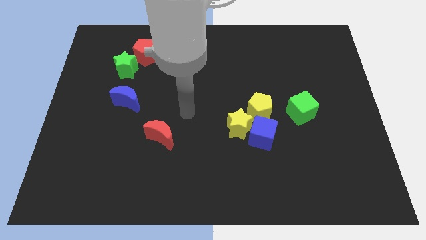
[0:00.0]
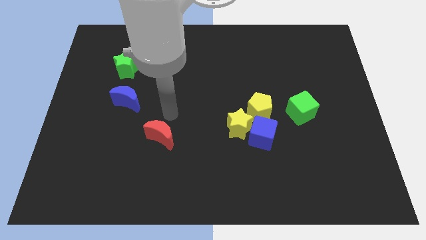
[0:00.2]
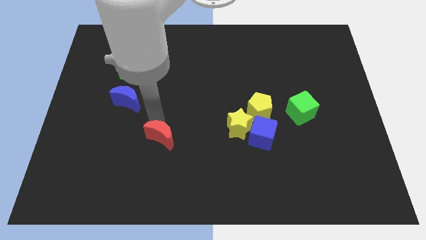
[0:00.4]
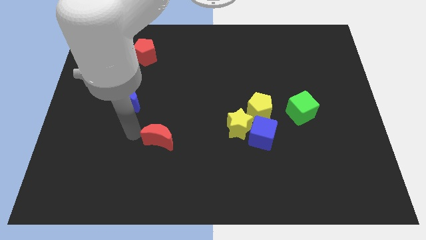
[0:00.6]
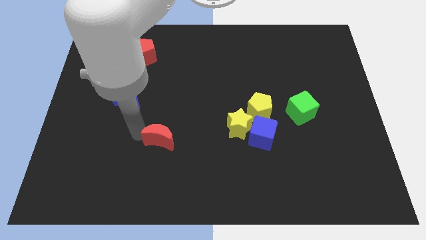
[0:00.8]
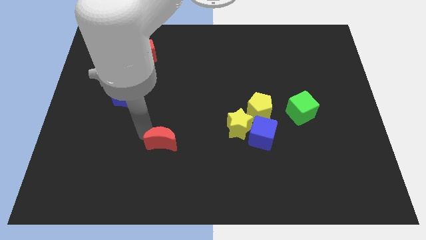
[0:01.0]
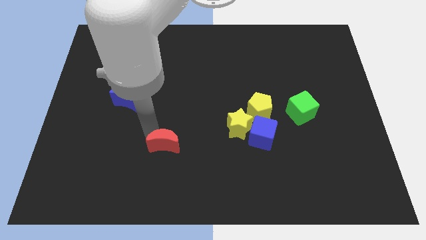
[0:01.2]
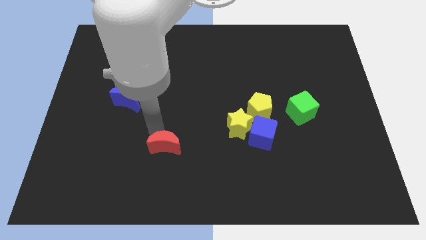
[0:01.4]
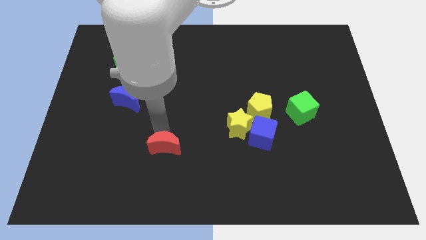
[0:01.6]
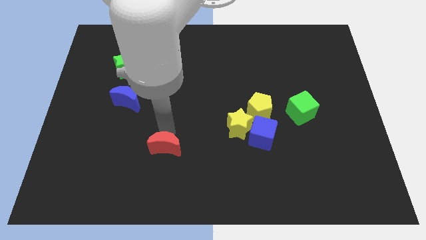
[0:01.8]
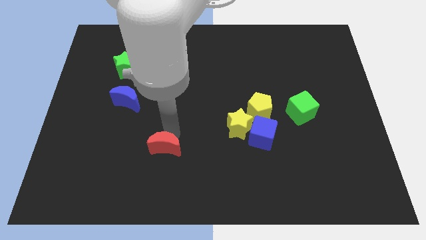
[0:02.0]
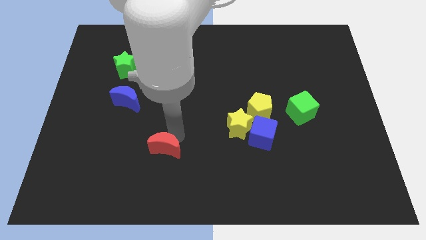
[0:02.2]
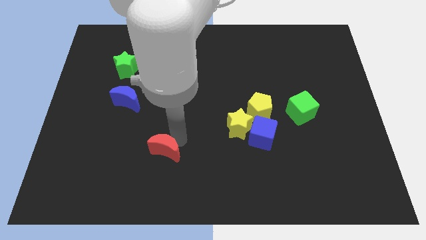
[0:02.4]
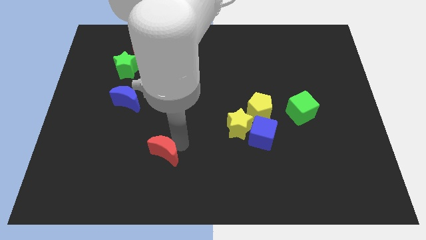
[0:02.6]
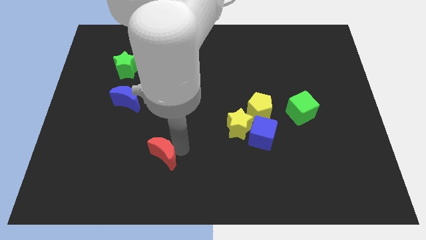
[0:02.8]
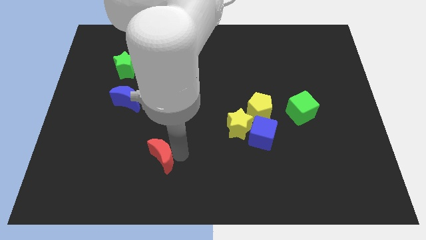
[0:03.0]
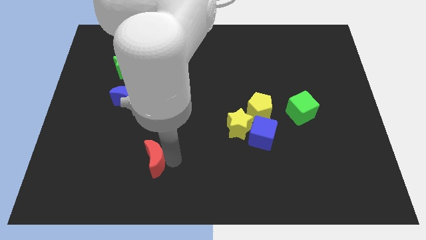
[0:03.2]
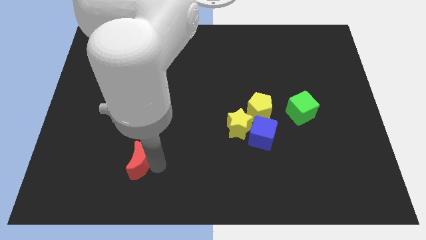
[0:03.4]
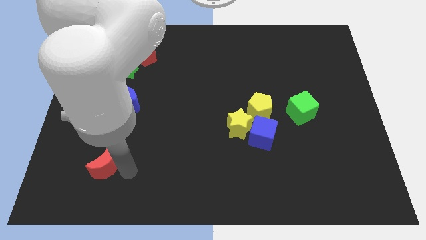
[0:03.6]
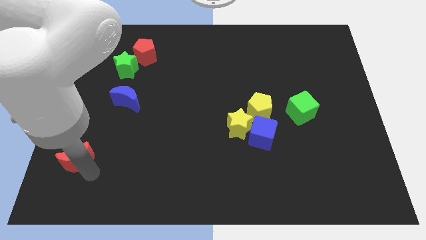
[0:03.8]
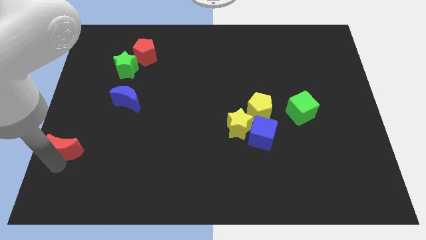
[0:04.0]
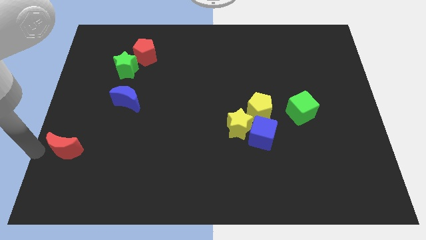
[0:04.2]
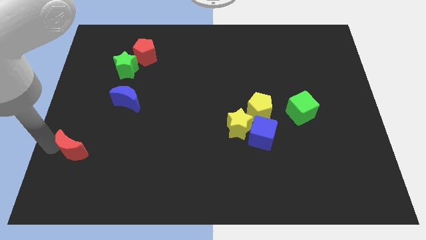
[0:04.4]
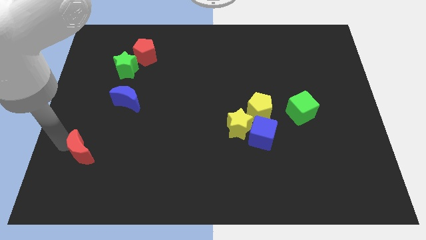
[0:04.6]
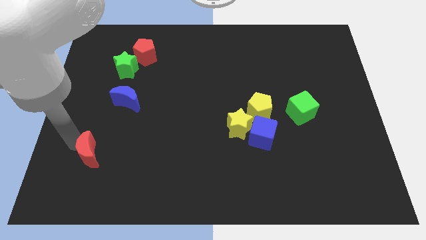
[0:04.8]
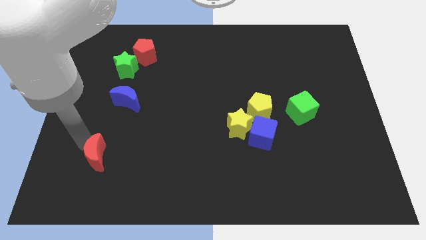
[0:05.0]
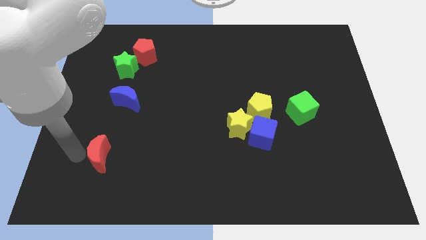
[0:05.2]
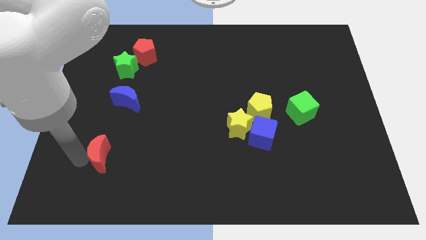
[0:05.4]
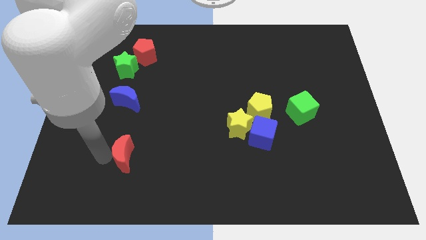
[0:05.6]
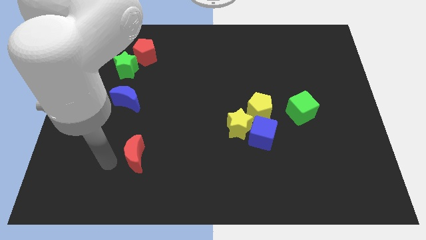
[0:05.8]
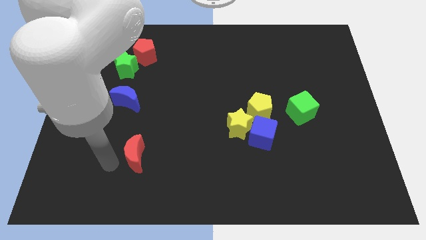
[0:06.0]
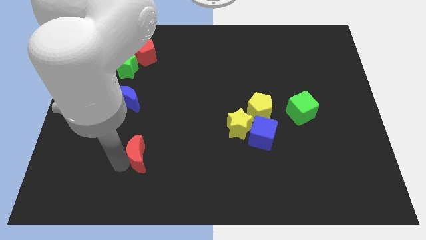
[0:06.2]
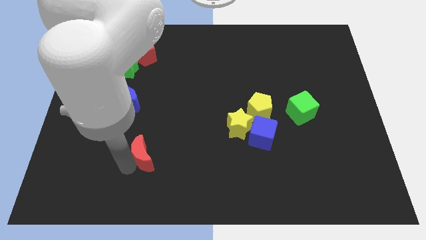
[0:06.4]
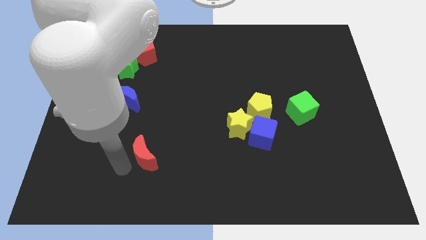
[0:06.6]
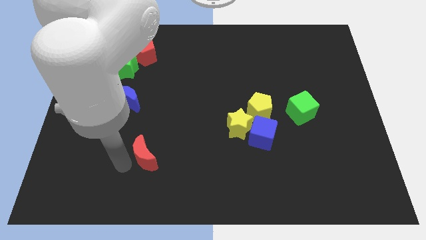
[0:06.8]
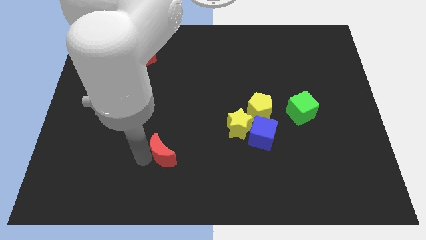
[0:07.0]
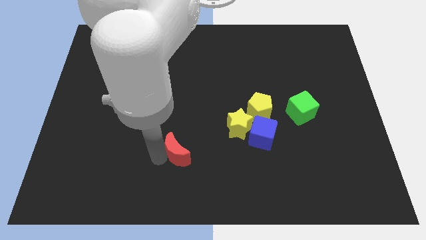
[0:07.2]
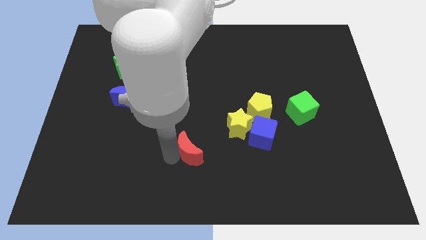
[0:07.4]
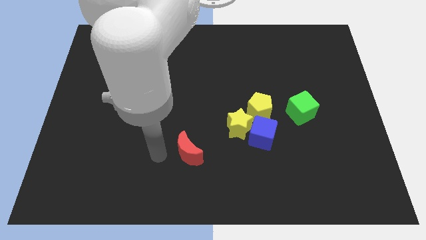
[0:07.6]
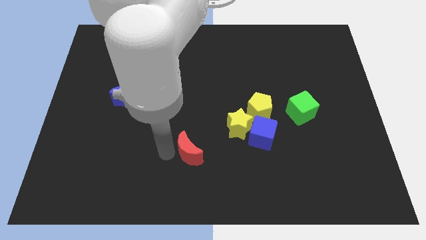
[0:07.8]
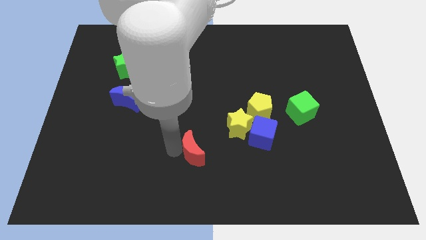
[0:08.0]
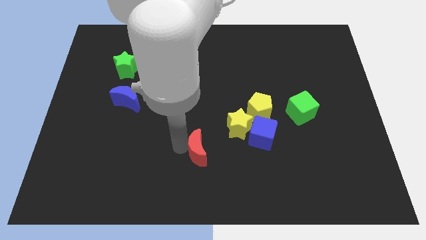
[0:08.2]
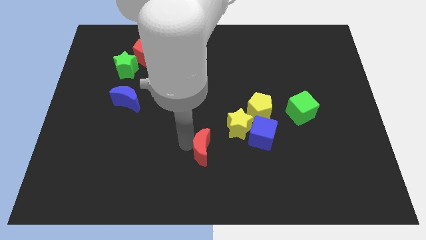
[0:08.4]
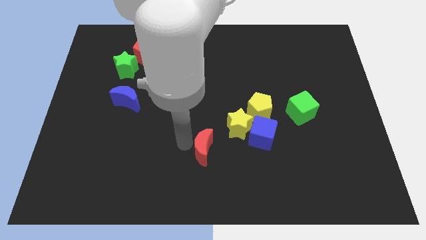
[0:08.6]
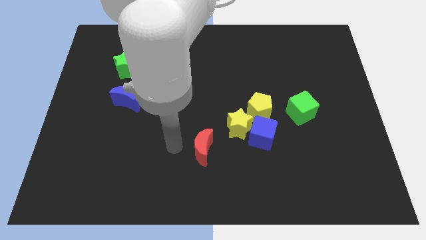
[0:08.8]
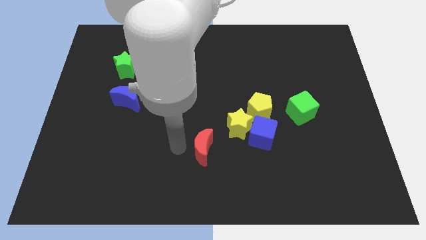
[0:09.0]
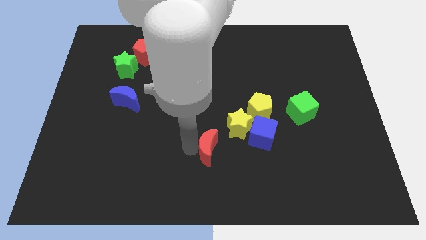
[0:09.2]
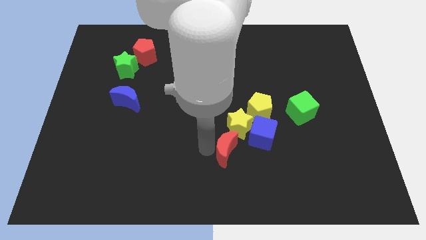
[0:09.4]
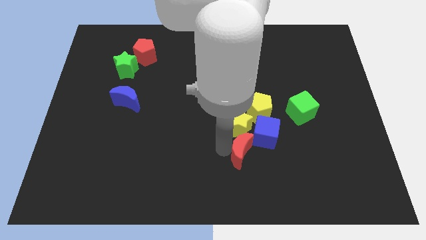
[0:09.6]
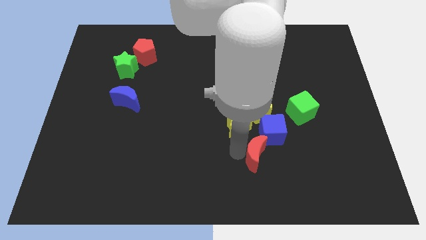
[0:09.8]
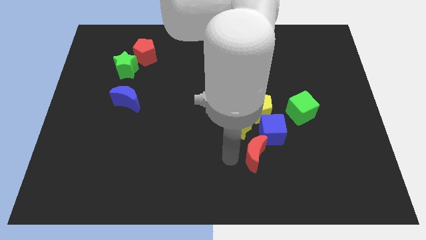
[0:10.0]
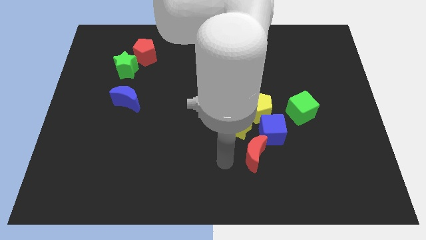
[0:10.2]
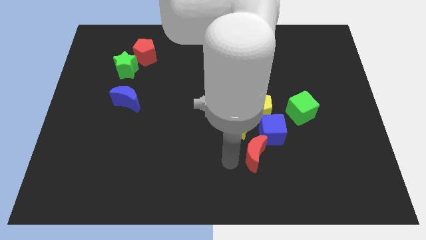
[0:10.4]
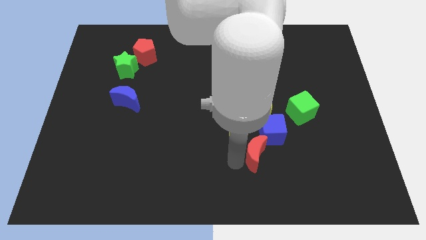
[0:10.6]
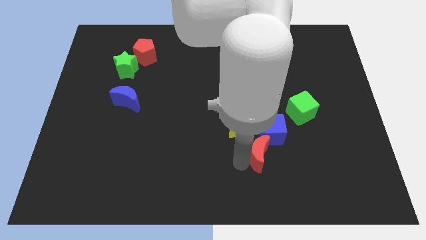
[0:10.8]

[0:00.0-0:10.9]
slide the red moon to the right

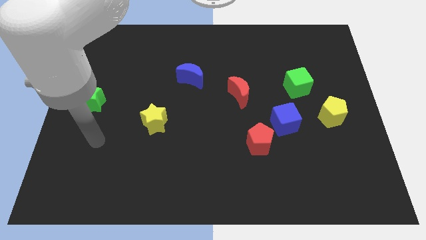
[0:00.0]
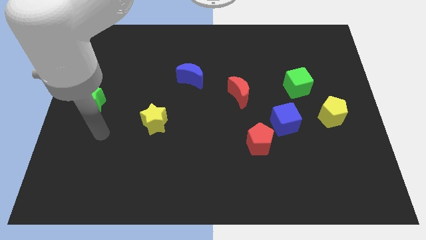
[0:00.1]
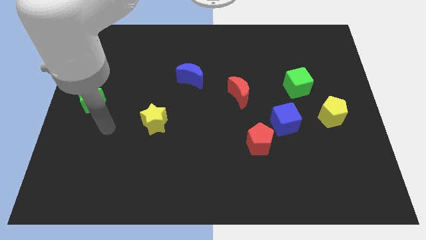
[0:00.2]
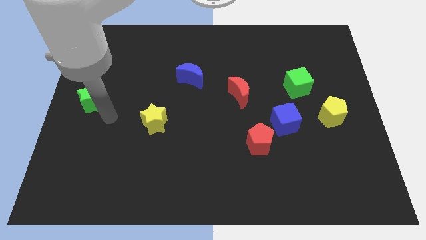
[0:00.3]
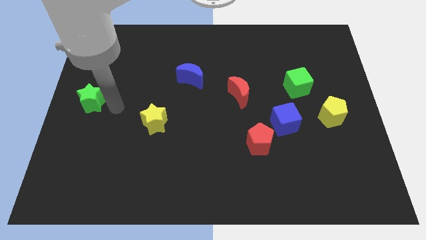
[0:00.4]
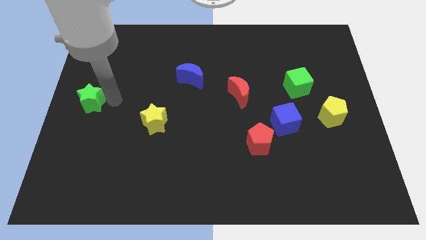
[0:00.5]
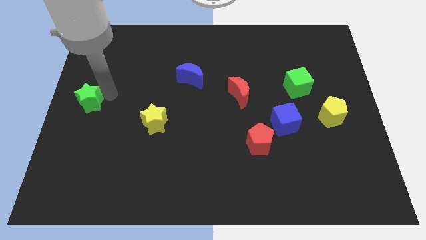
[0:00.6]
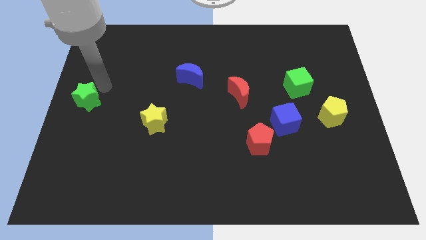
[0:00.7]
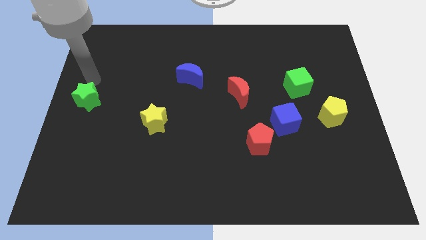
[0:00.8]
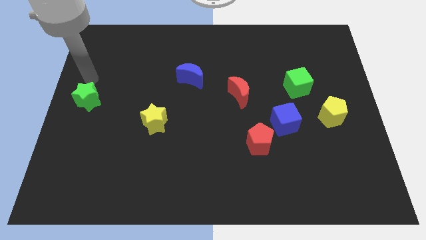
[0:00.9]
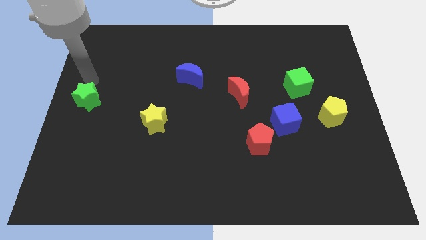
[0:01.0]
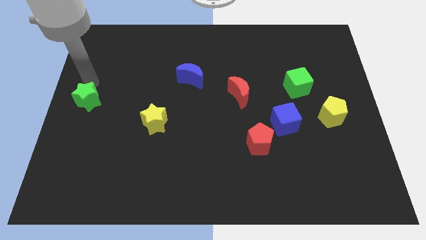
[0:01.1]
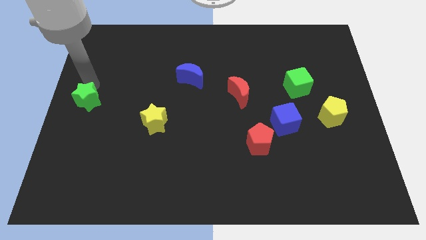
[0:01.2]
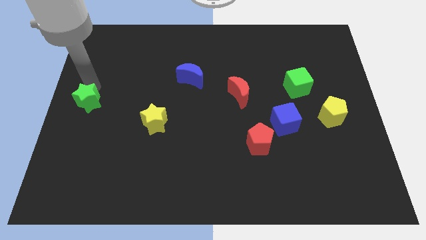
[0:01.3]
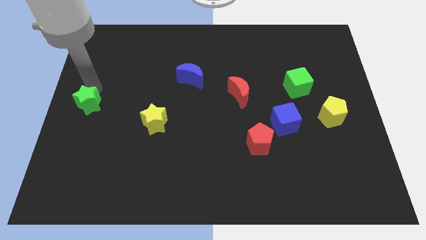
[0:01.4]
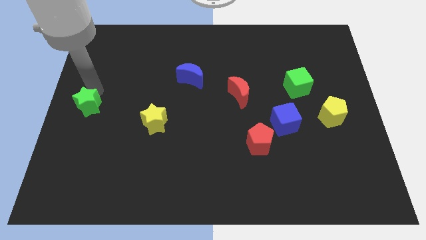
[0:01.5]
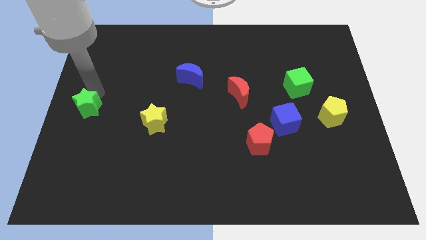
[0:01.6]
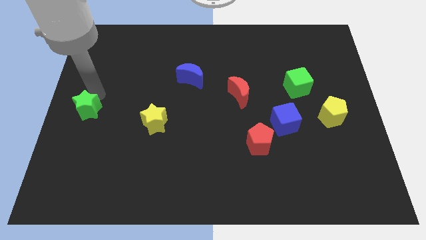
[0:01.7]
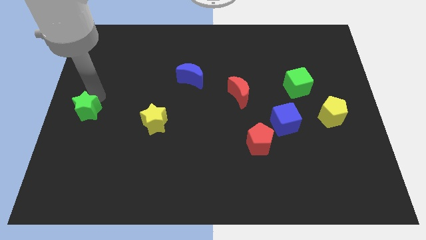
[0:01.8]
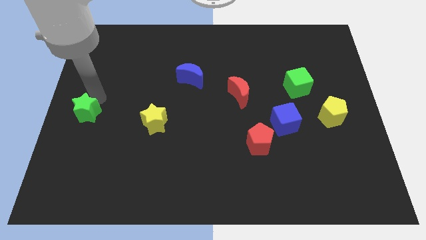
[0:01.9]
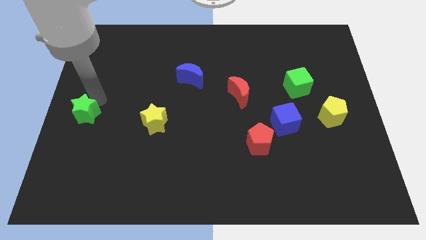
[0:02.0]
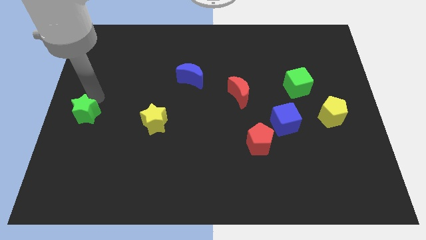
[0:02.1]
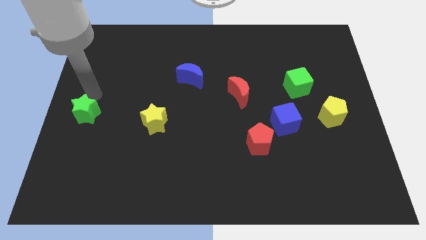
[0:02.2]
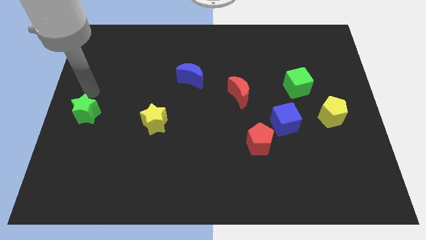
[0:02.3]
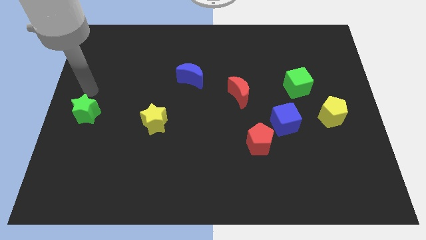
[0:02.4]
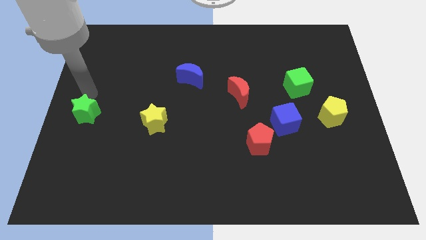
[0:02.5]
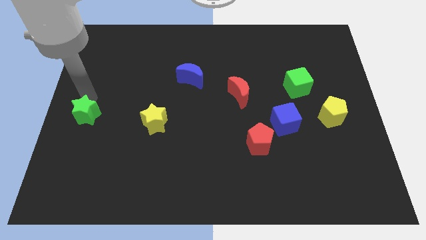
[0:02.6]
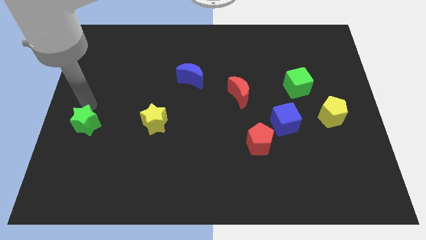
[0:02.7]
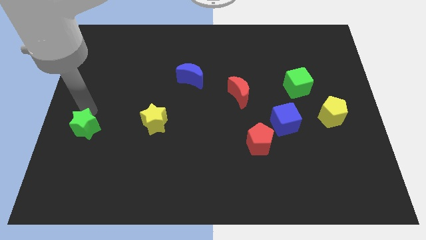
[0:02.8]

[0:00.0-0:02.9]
slide the green star downwards slightly
